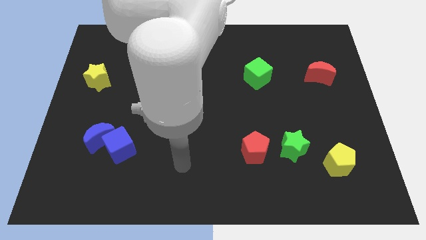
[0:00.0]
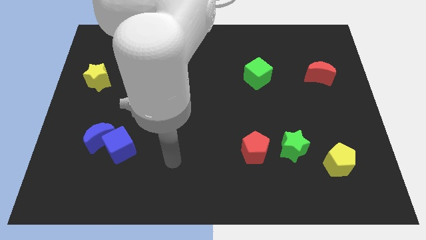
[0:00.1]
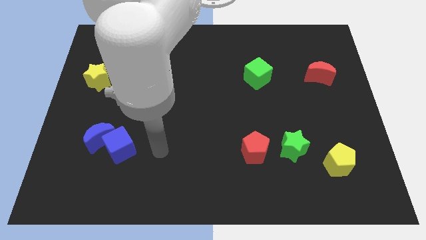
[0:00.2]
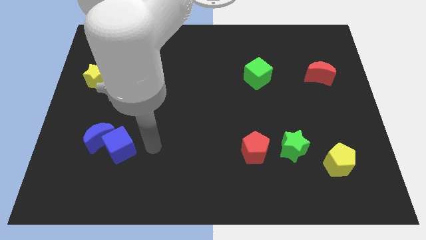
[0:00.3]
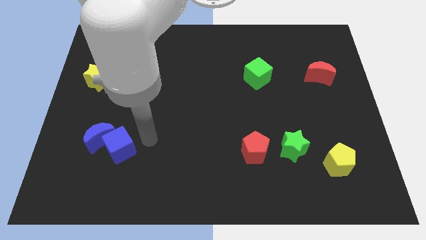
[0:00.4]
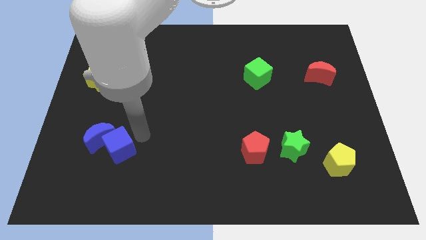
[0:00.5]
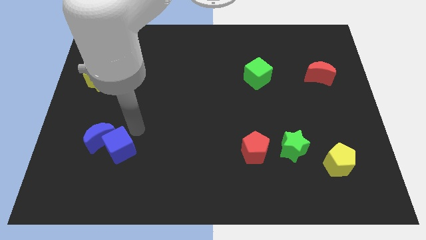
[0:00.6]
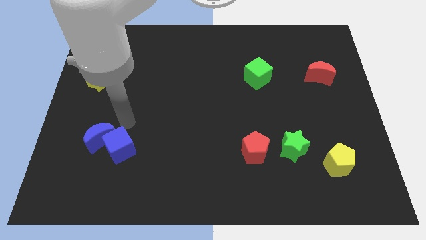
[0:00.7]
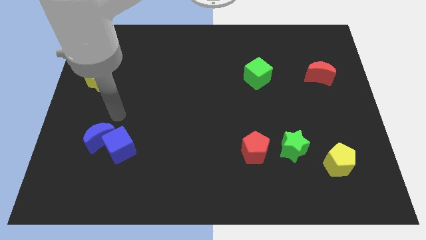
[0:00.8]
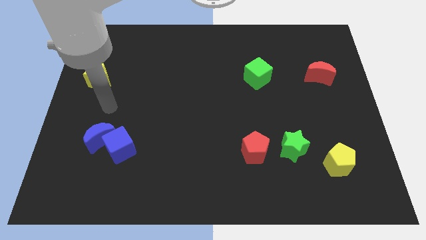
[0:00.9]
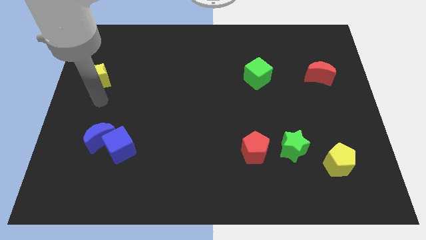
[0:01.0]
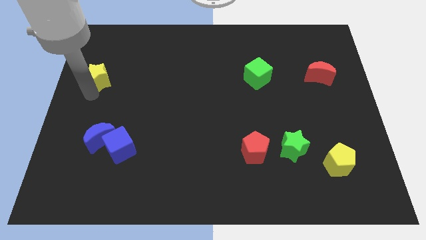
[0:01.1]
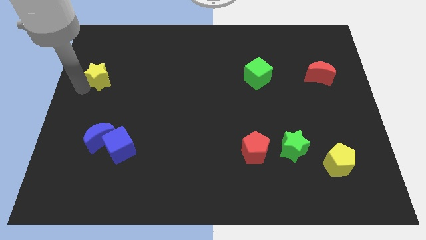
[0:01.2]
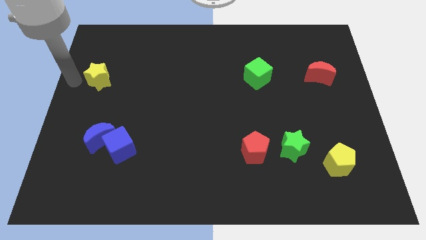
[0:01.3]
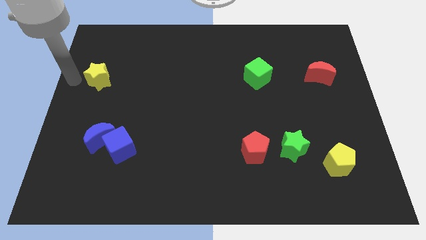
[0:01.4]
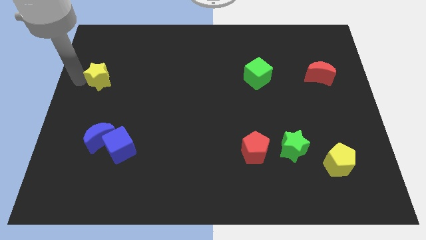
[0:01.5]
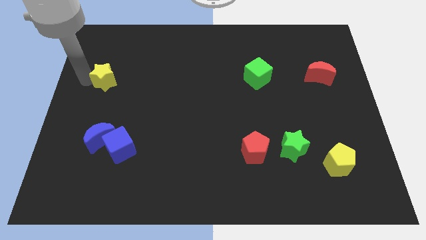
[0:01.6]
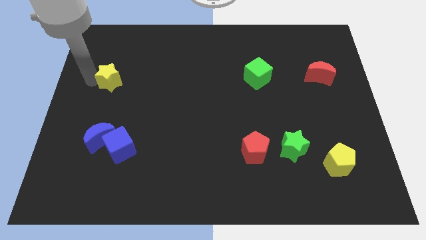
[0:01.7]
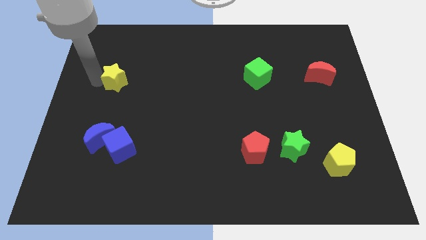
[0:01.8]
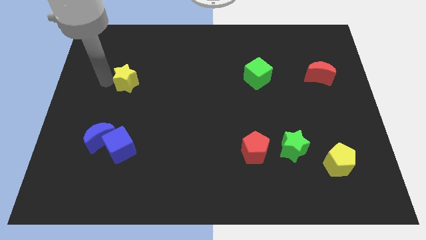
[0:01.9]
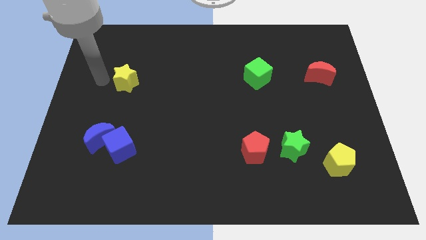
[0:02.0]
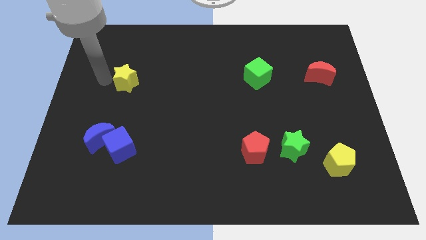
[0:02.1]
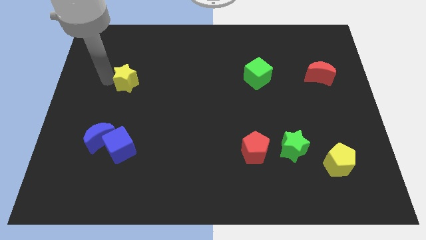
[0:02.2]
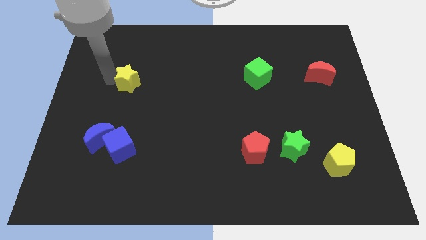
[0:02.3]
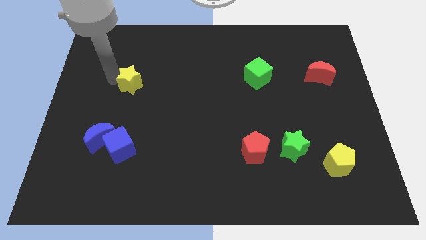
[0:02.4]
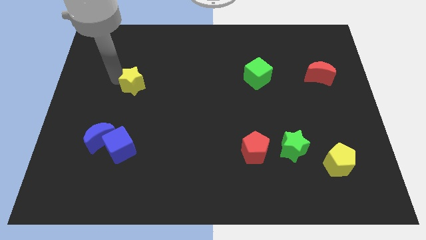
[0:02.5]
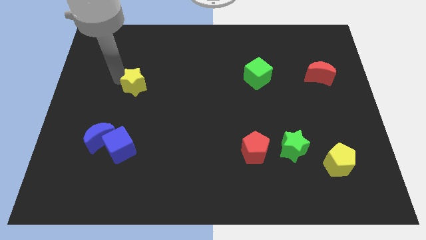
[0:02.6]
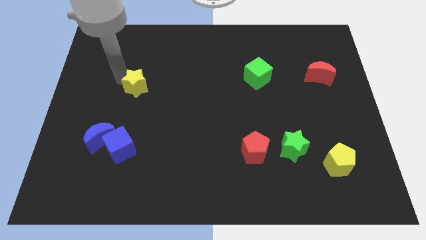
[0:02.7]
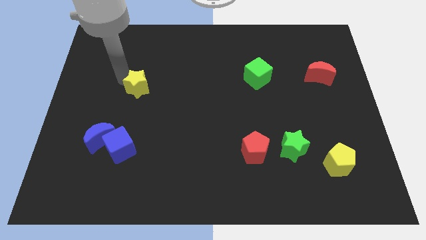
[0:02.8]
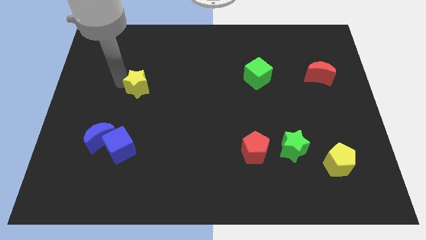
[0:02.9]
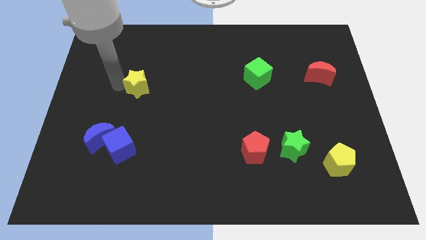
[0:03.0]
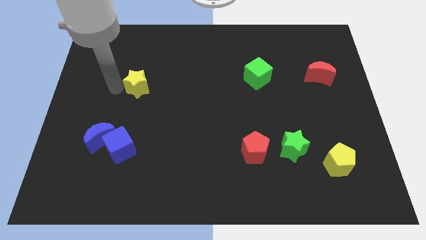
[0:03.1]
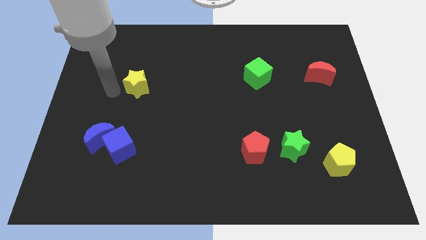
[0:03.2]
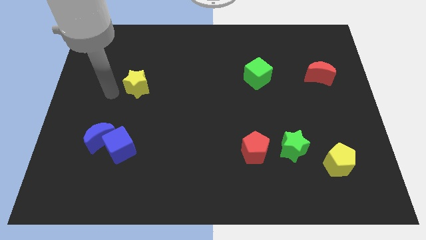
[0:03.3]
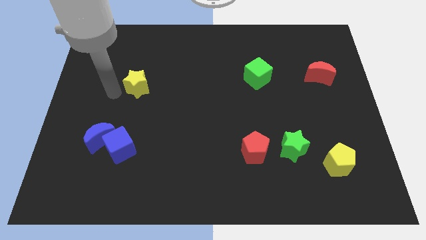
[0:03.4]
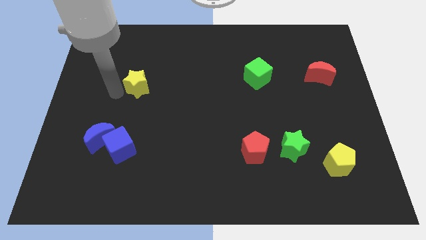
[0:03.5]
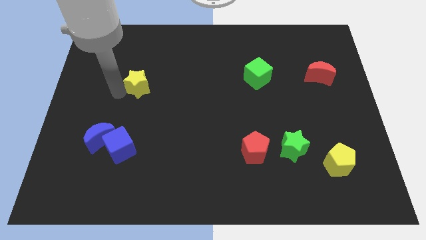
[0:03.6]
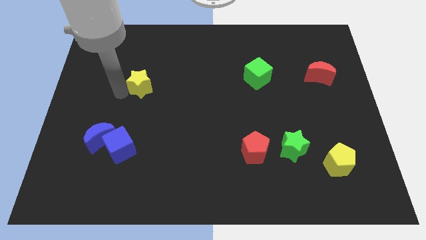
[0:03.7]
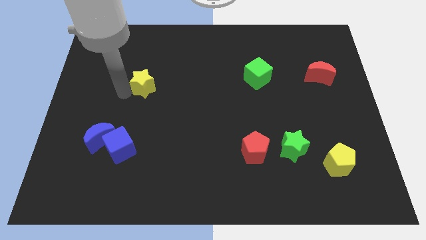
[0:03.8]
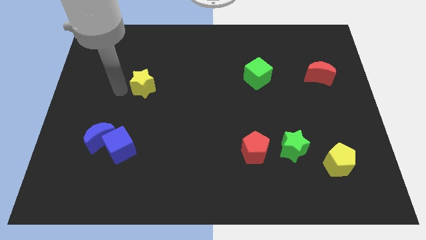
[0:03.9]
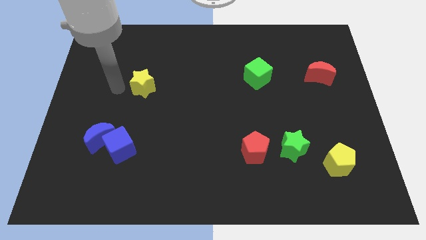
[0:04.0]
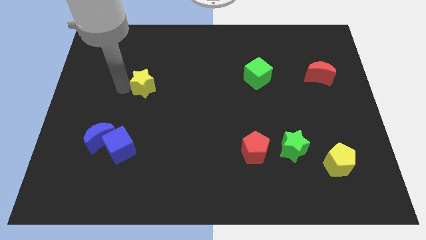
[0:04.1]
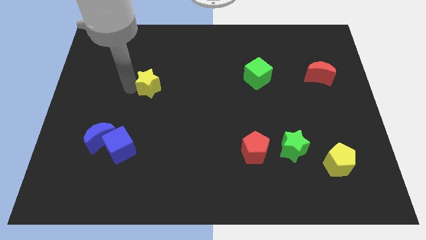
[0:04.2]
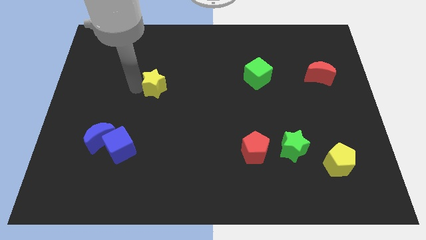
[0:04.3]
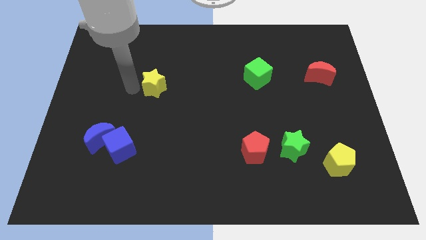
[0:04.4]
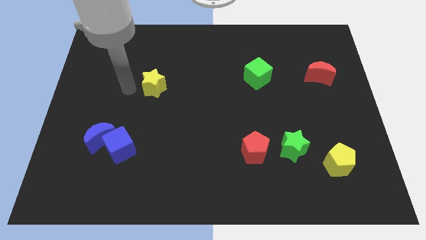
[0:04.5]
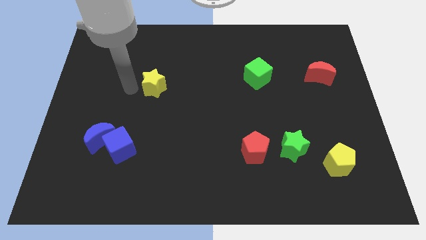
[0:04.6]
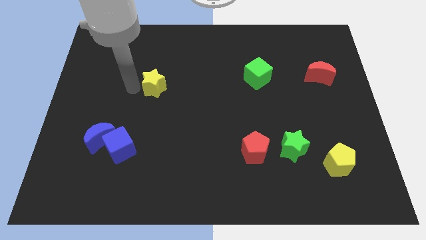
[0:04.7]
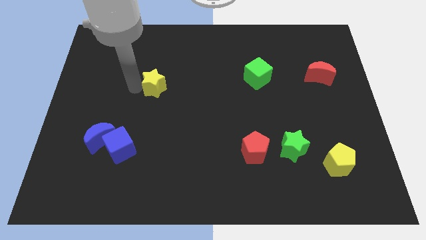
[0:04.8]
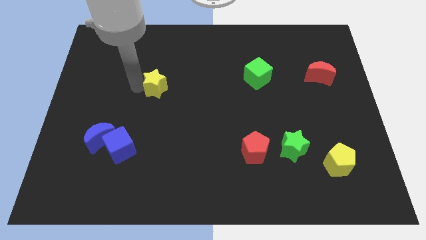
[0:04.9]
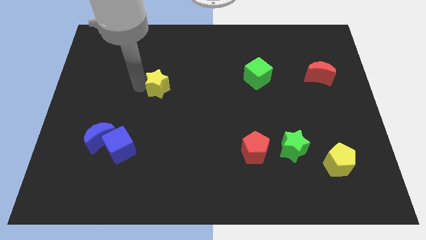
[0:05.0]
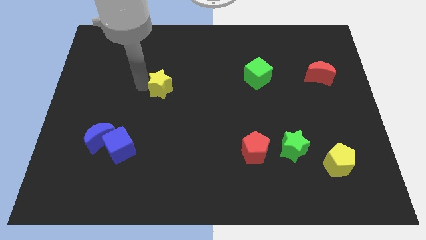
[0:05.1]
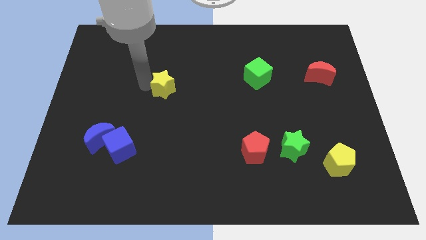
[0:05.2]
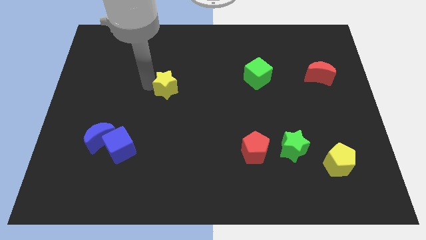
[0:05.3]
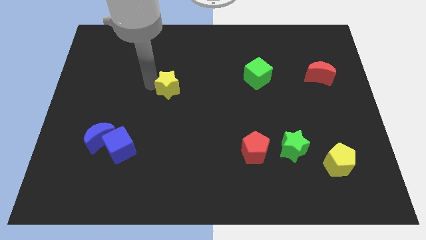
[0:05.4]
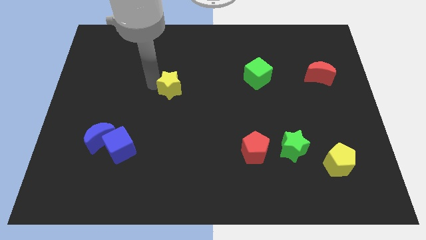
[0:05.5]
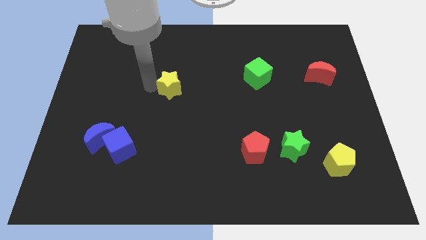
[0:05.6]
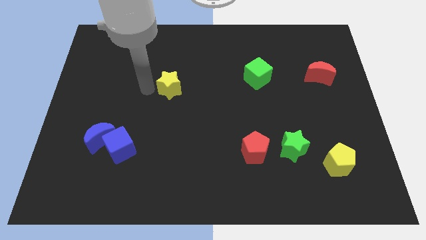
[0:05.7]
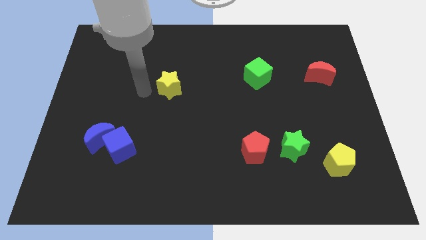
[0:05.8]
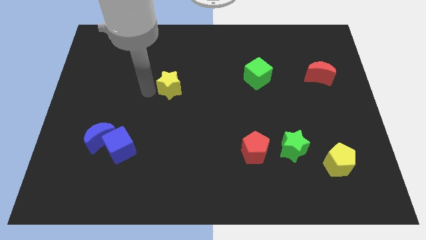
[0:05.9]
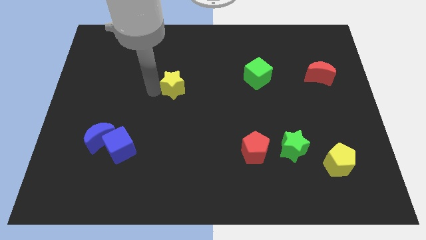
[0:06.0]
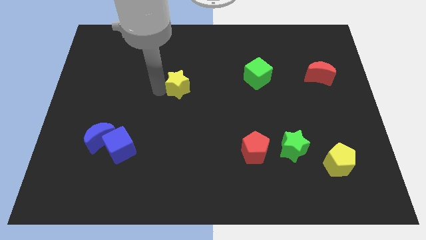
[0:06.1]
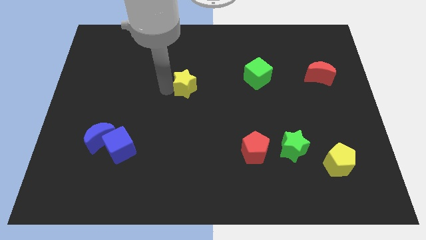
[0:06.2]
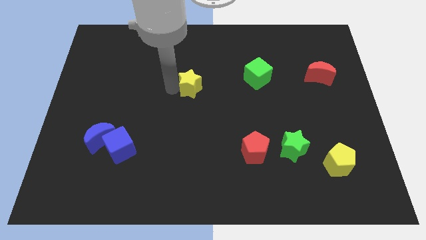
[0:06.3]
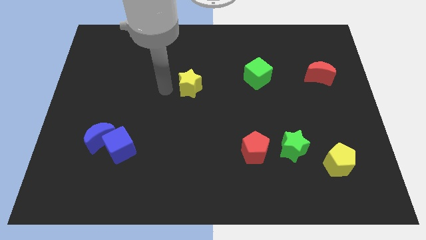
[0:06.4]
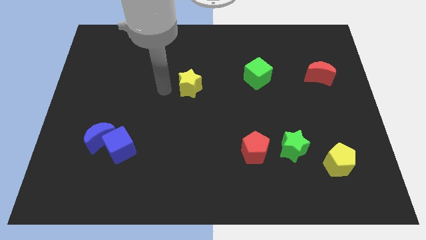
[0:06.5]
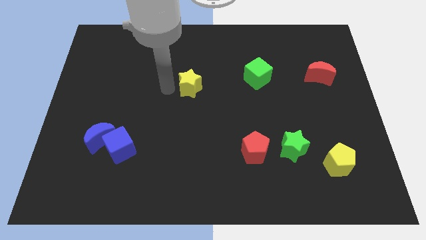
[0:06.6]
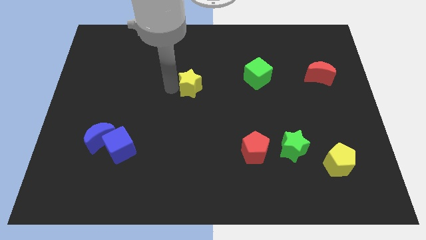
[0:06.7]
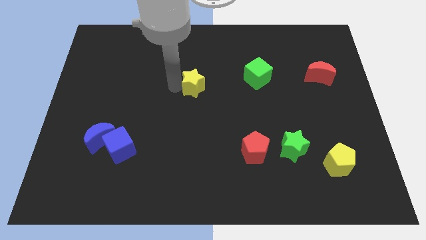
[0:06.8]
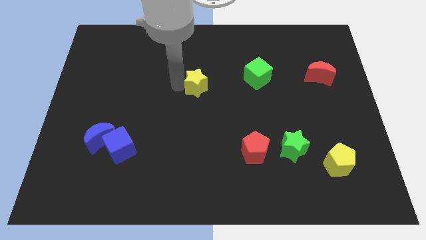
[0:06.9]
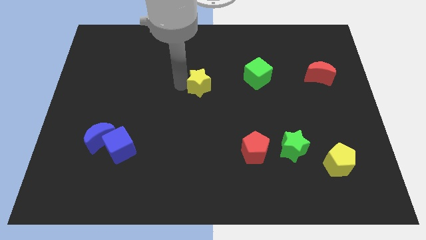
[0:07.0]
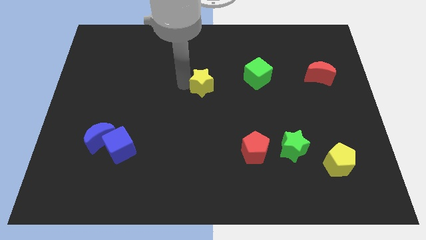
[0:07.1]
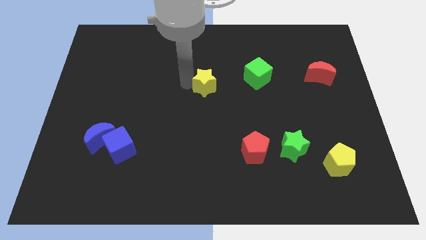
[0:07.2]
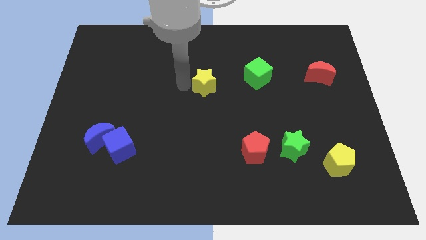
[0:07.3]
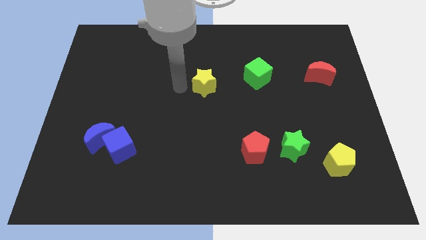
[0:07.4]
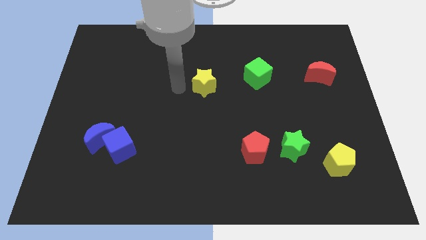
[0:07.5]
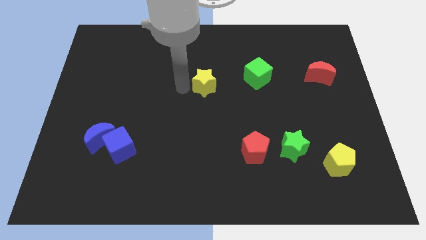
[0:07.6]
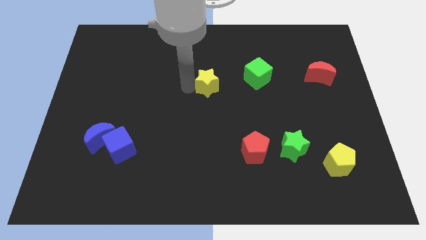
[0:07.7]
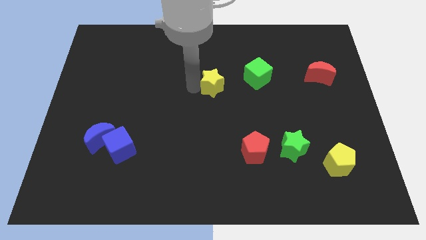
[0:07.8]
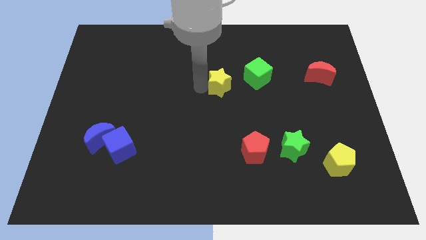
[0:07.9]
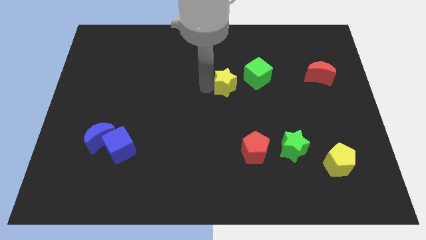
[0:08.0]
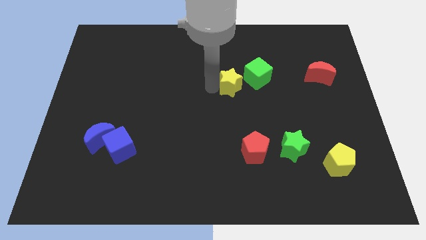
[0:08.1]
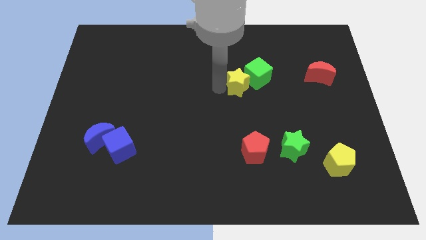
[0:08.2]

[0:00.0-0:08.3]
slide the yellow star next to the green cube
